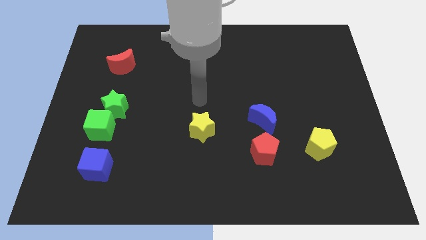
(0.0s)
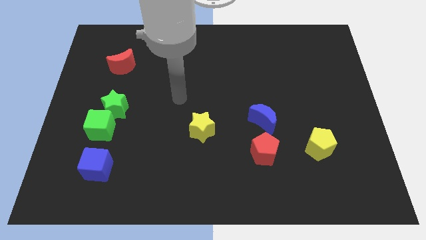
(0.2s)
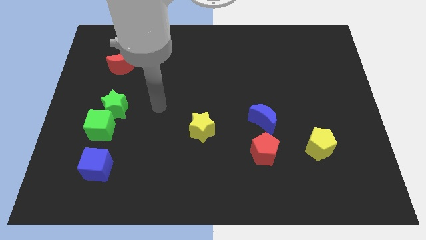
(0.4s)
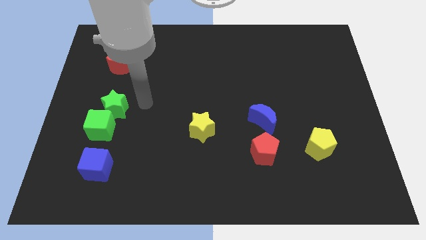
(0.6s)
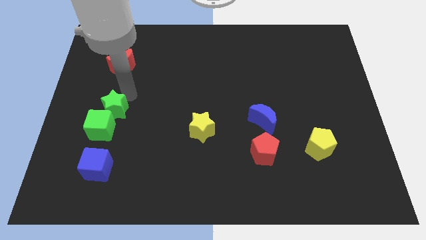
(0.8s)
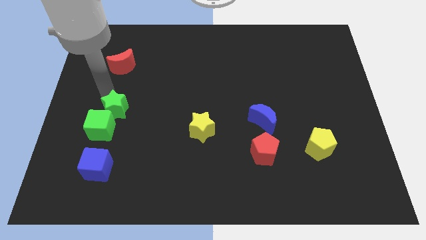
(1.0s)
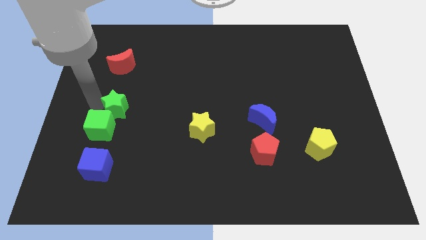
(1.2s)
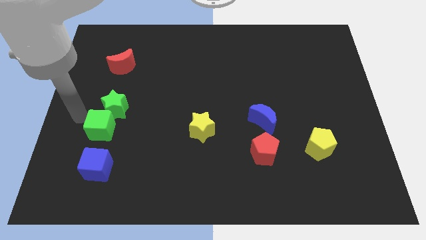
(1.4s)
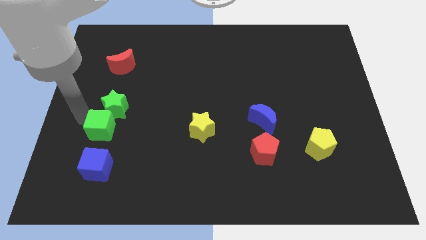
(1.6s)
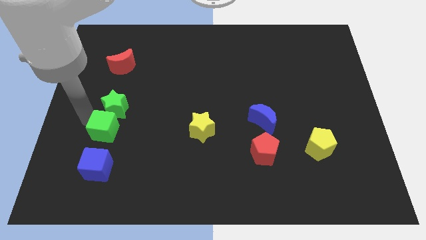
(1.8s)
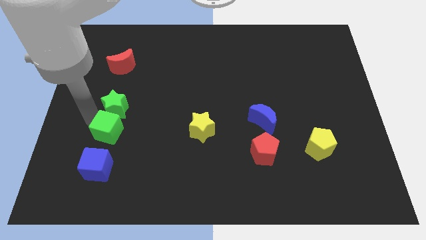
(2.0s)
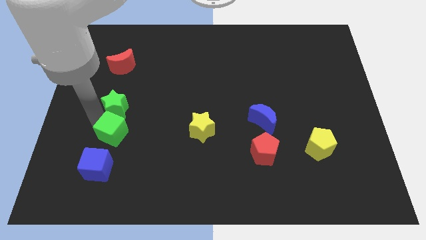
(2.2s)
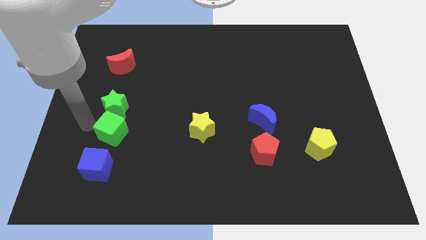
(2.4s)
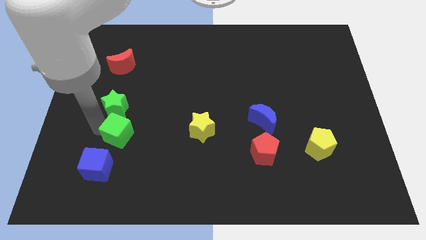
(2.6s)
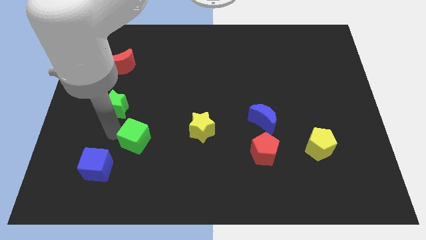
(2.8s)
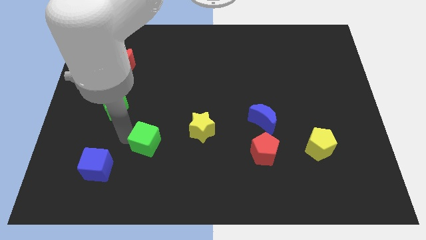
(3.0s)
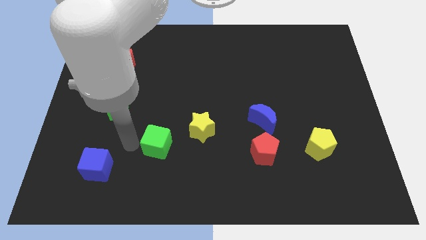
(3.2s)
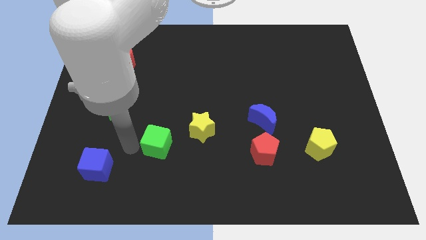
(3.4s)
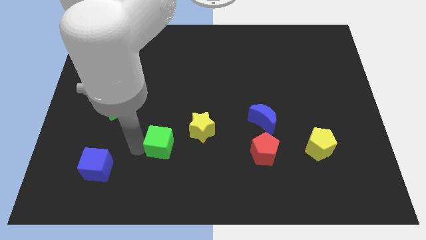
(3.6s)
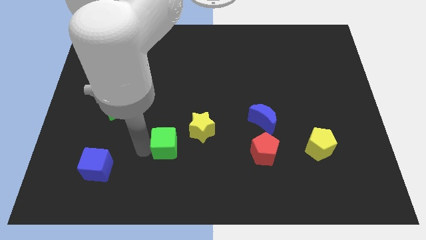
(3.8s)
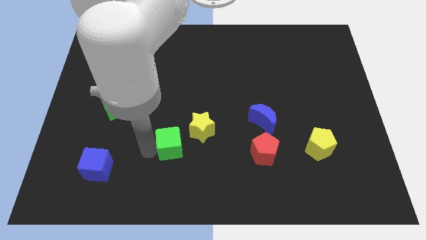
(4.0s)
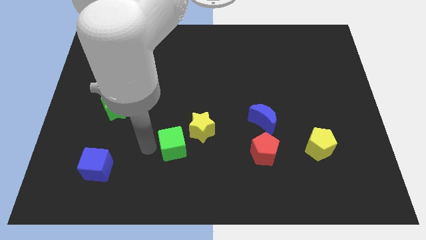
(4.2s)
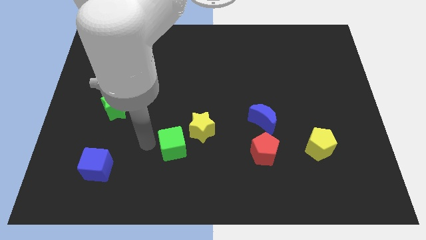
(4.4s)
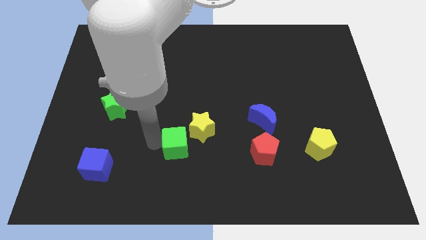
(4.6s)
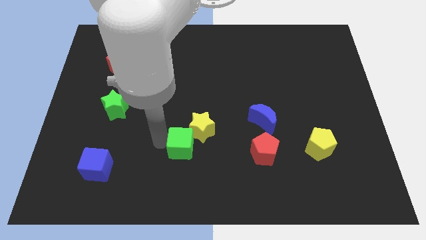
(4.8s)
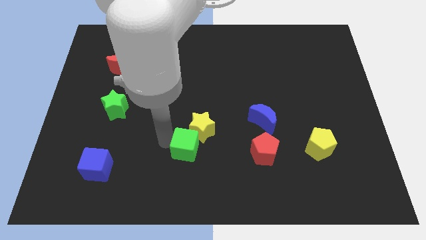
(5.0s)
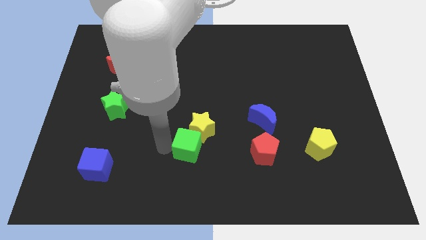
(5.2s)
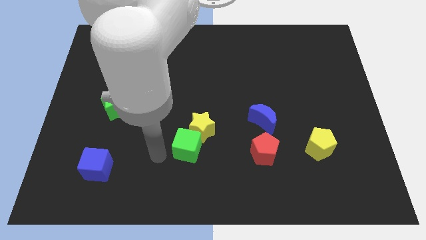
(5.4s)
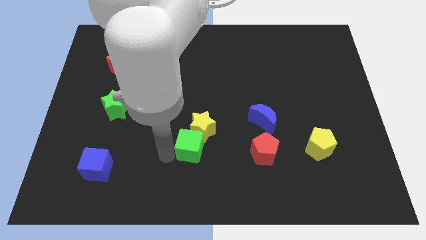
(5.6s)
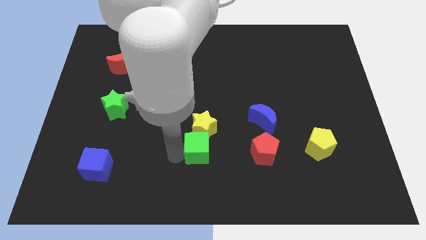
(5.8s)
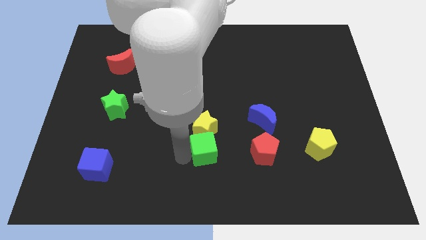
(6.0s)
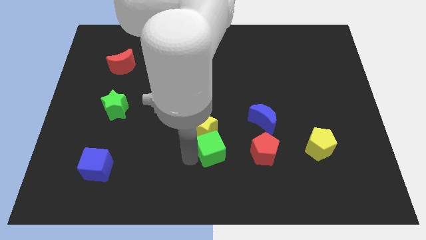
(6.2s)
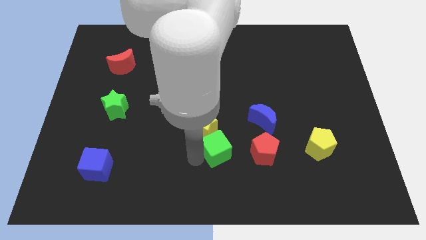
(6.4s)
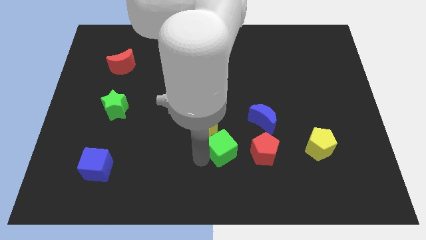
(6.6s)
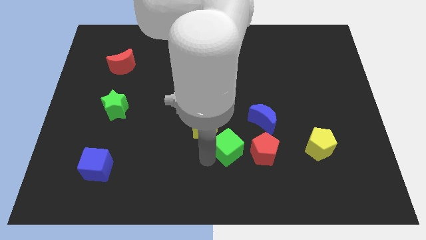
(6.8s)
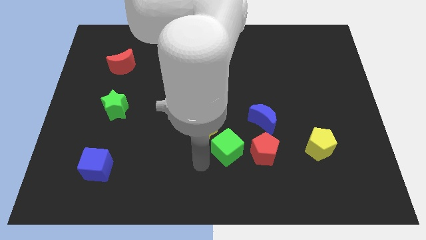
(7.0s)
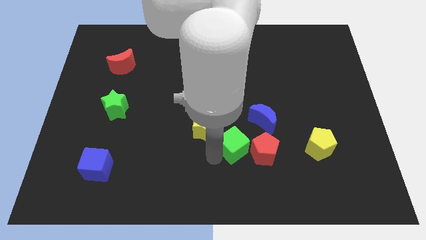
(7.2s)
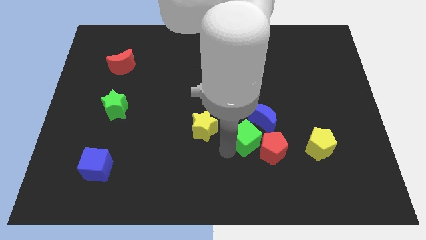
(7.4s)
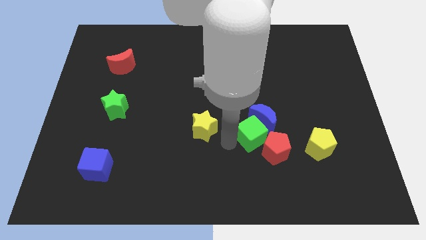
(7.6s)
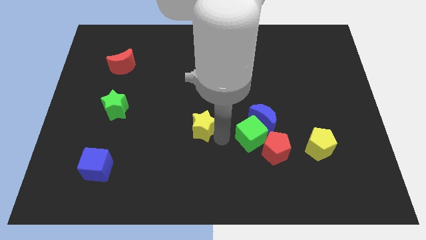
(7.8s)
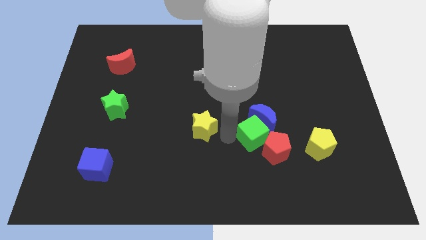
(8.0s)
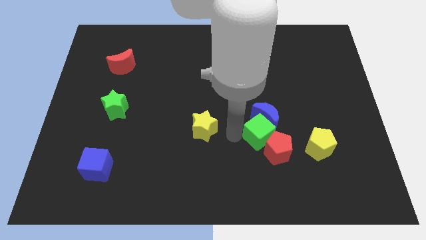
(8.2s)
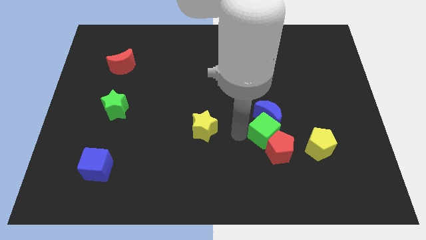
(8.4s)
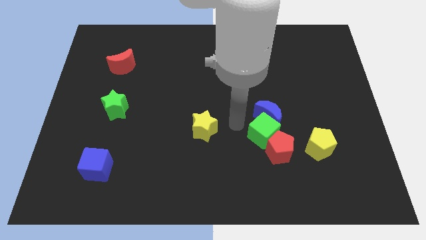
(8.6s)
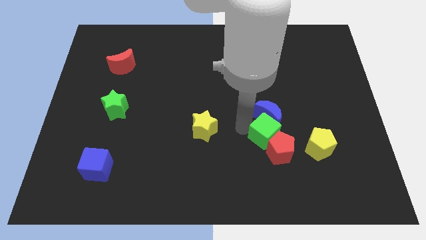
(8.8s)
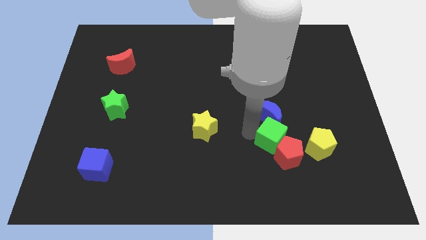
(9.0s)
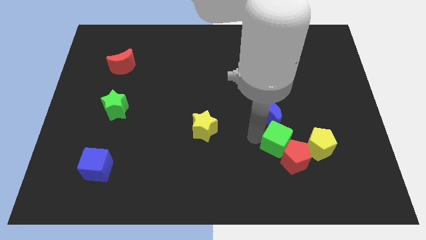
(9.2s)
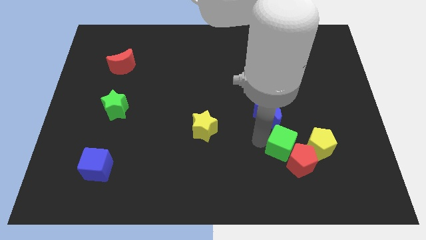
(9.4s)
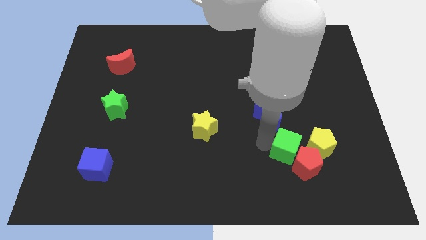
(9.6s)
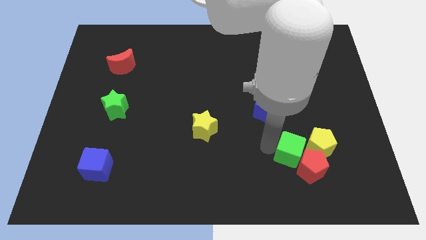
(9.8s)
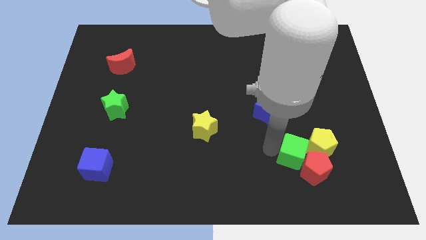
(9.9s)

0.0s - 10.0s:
move the green cube close to the yellow pentagon

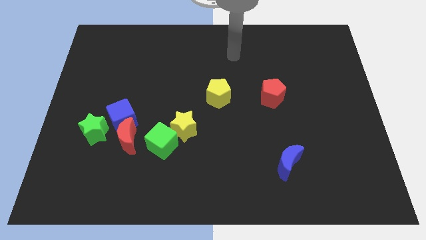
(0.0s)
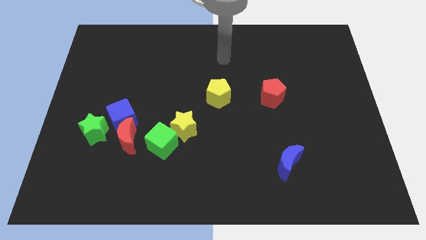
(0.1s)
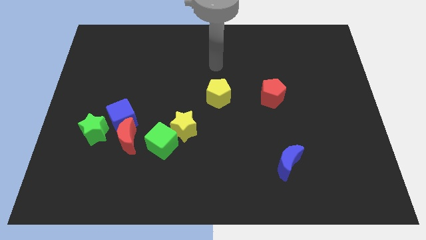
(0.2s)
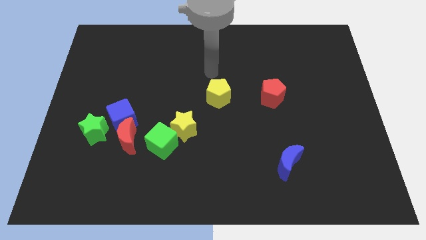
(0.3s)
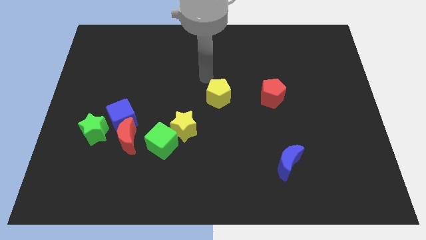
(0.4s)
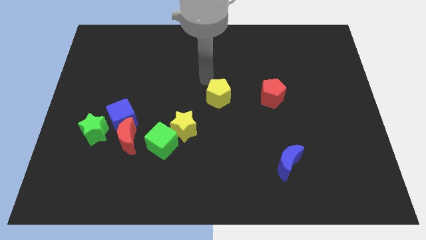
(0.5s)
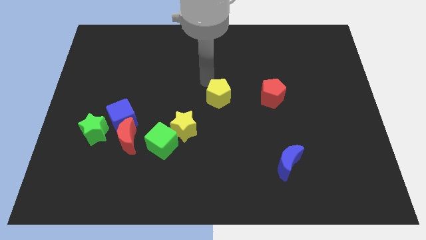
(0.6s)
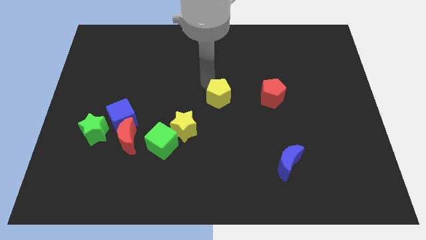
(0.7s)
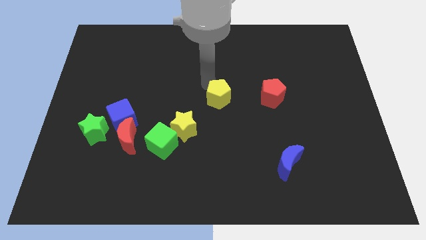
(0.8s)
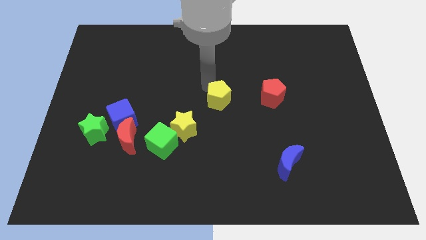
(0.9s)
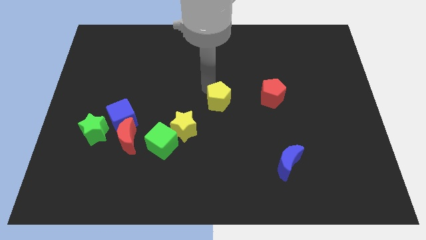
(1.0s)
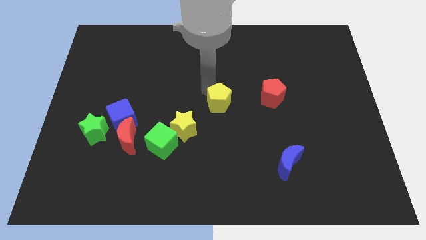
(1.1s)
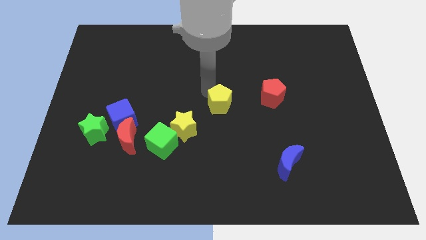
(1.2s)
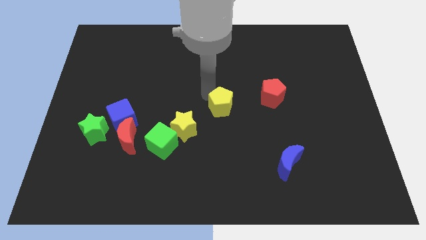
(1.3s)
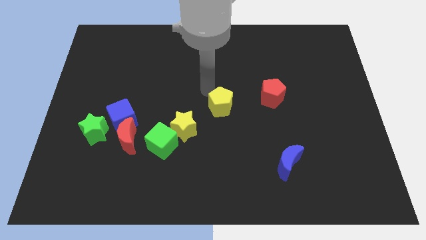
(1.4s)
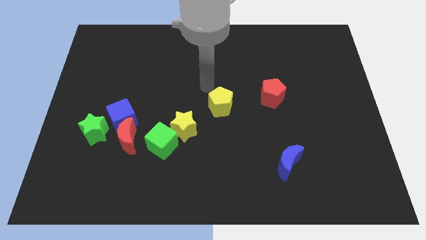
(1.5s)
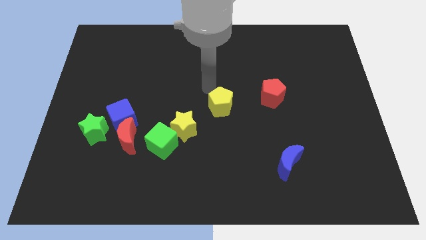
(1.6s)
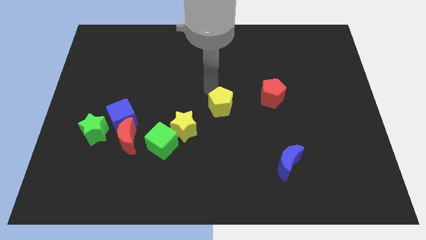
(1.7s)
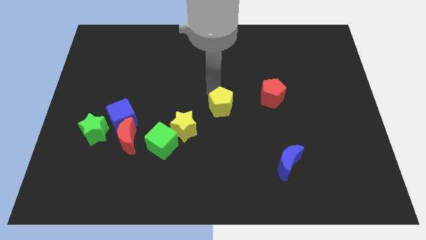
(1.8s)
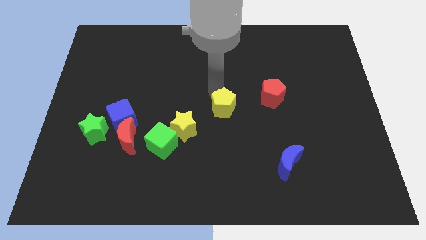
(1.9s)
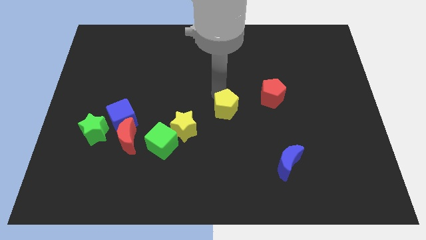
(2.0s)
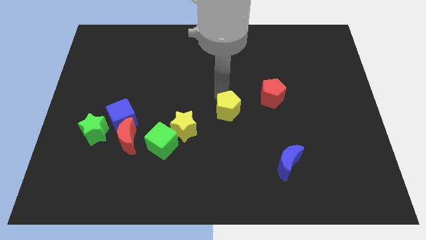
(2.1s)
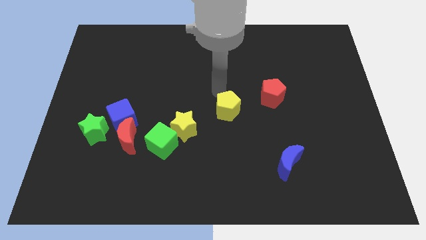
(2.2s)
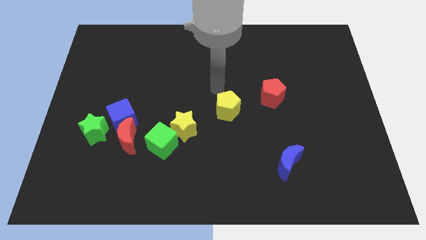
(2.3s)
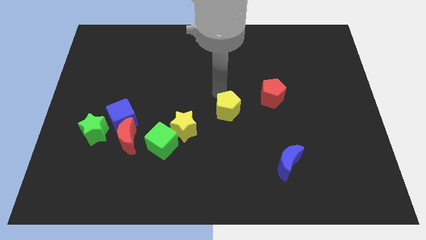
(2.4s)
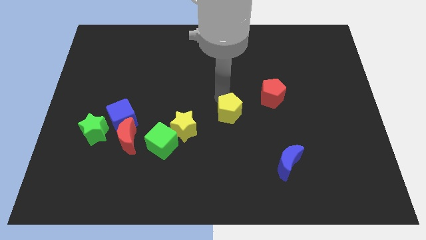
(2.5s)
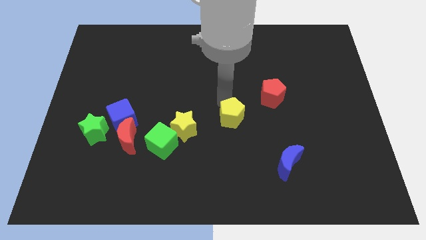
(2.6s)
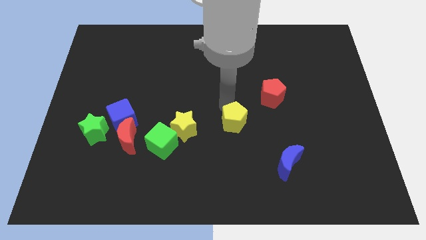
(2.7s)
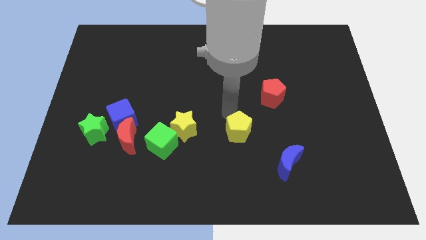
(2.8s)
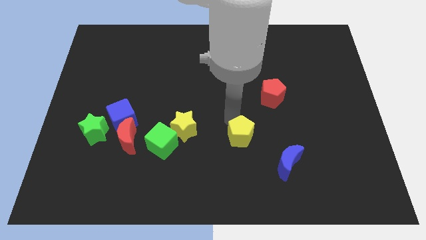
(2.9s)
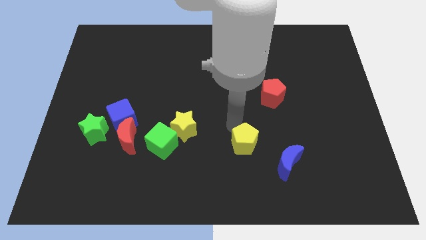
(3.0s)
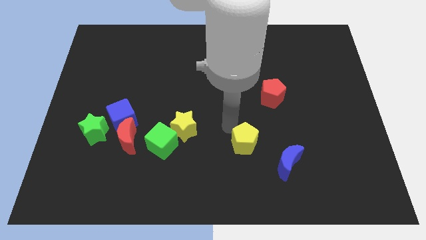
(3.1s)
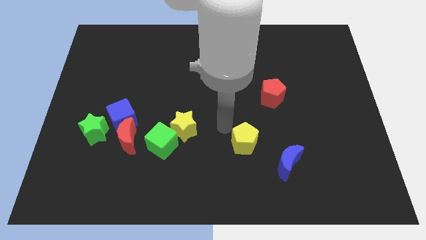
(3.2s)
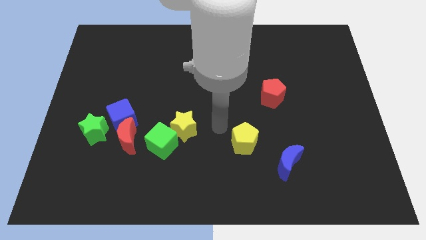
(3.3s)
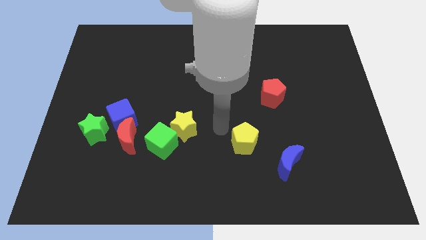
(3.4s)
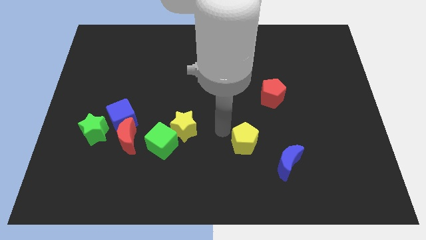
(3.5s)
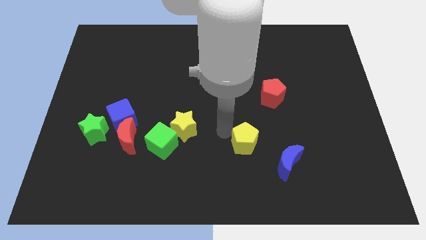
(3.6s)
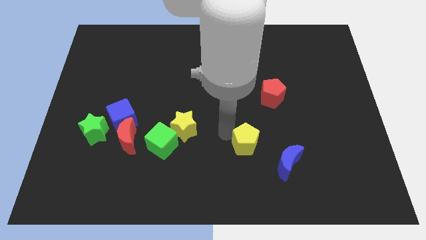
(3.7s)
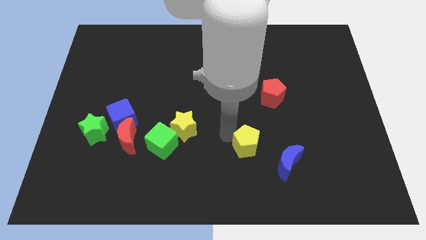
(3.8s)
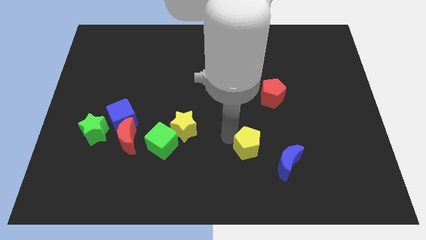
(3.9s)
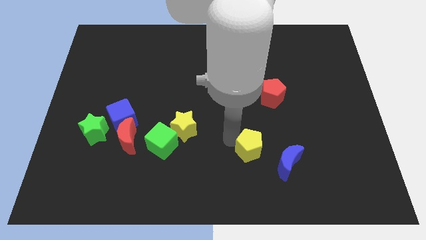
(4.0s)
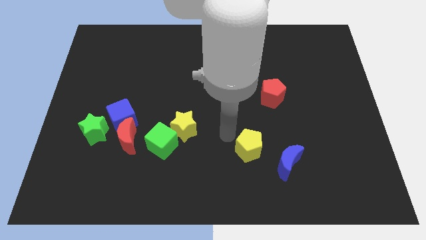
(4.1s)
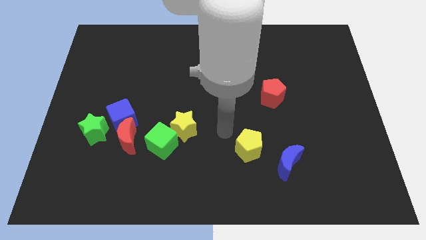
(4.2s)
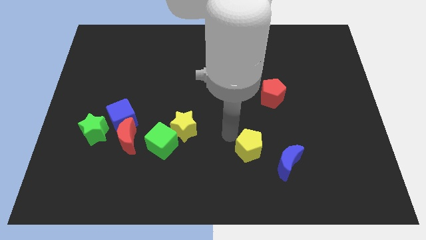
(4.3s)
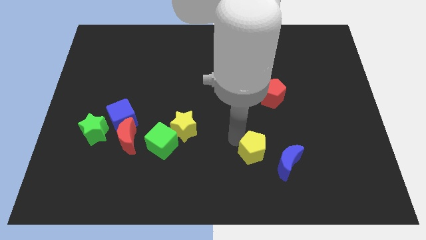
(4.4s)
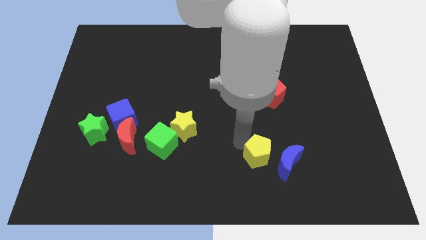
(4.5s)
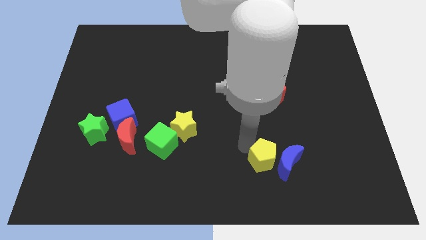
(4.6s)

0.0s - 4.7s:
push the yellow pentagon to the blue moon
